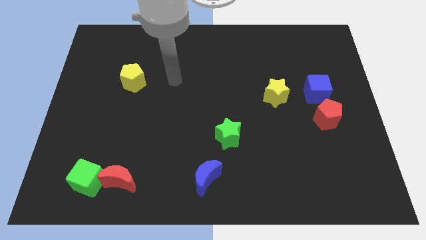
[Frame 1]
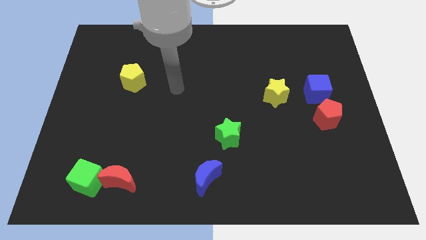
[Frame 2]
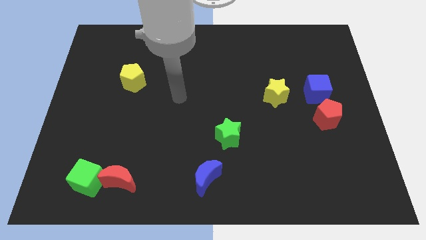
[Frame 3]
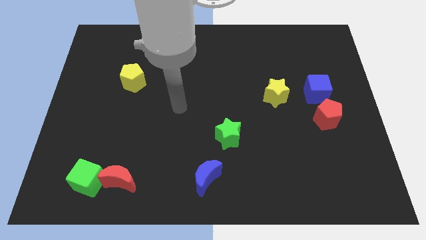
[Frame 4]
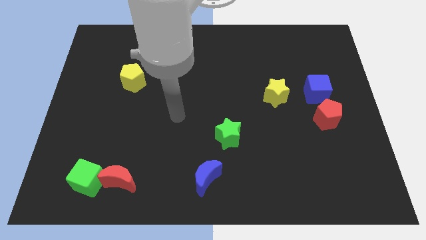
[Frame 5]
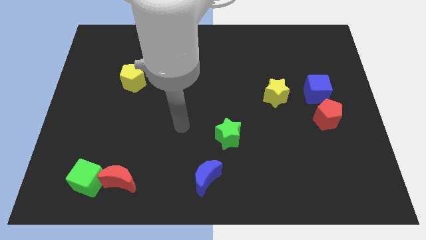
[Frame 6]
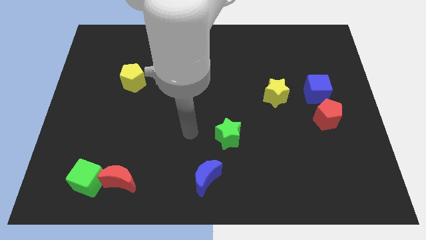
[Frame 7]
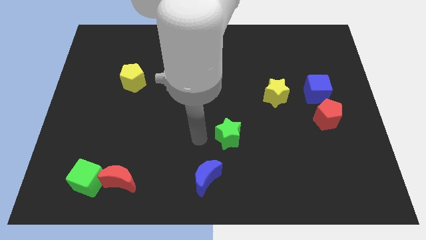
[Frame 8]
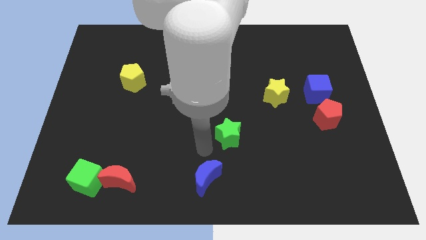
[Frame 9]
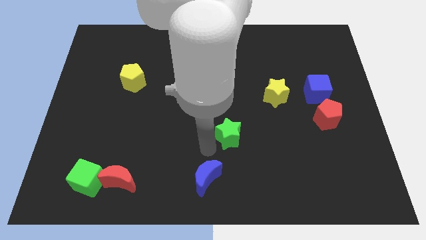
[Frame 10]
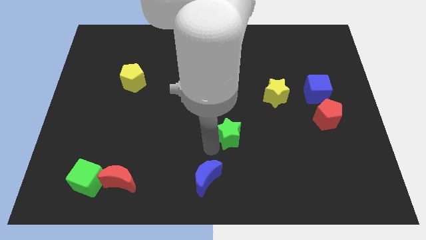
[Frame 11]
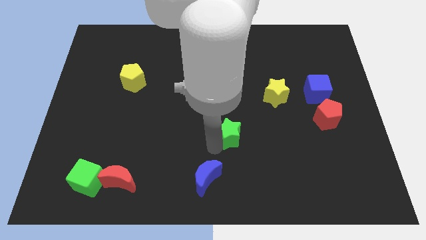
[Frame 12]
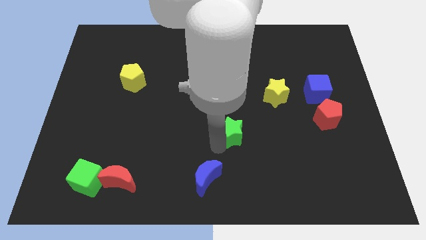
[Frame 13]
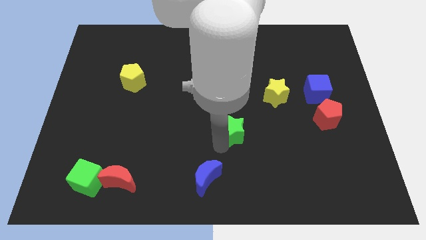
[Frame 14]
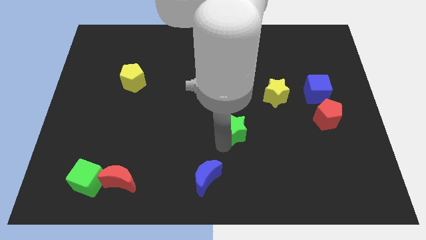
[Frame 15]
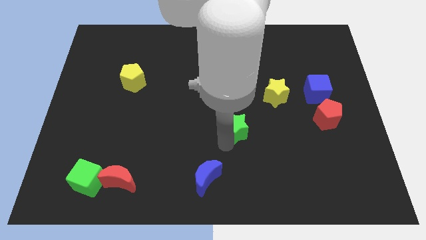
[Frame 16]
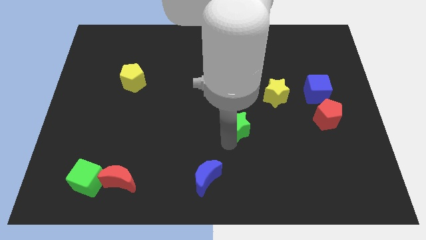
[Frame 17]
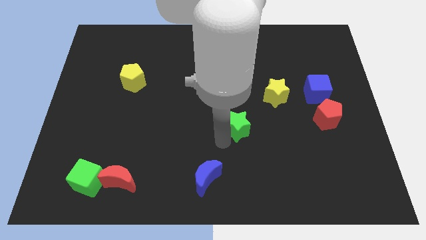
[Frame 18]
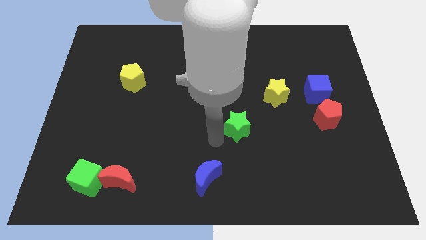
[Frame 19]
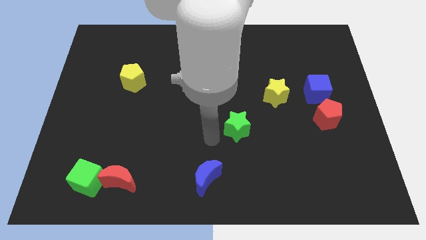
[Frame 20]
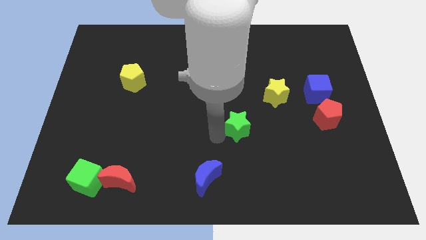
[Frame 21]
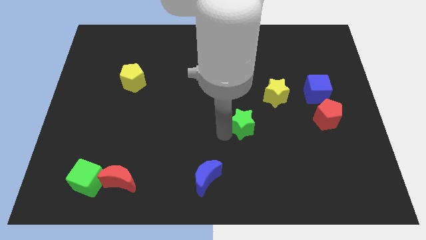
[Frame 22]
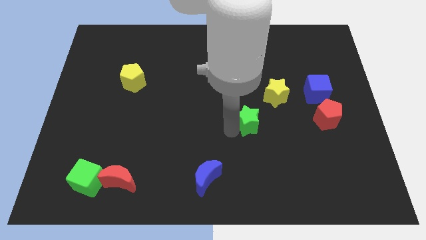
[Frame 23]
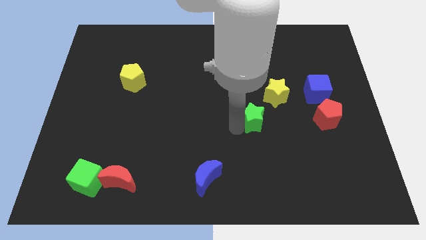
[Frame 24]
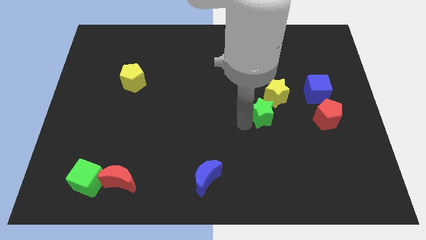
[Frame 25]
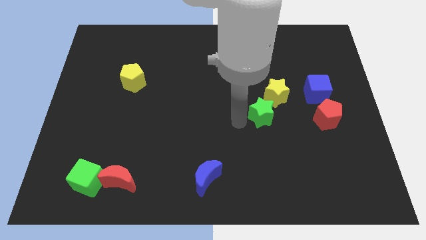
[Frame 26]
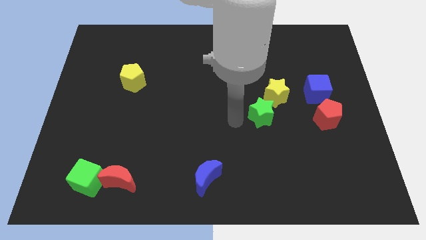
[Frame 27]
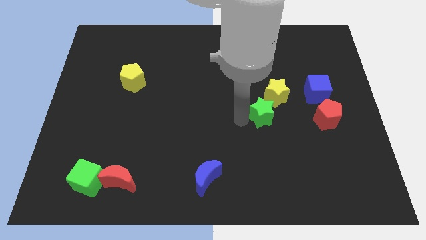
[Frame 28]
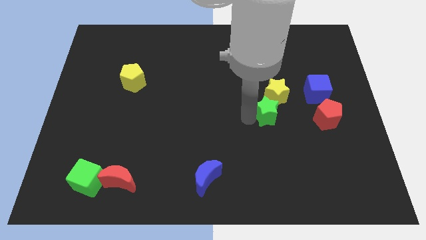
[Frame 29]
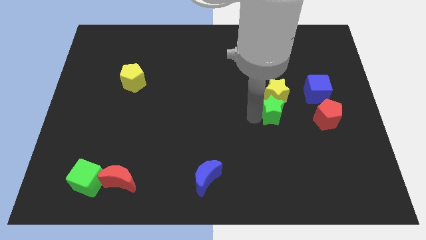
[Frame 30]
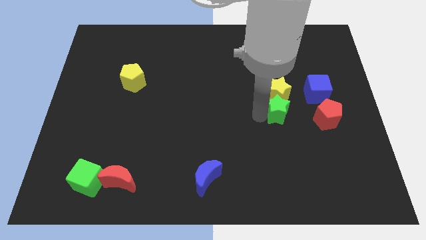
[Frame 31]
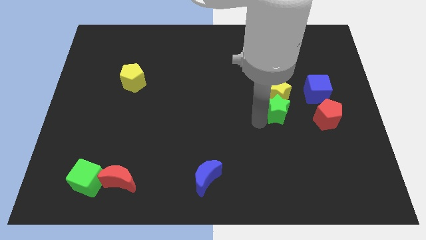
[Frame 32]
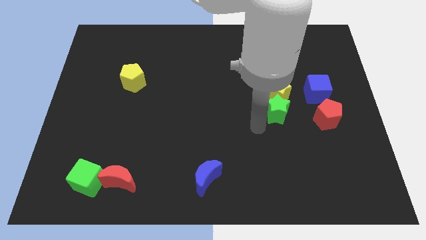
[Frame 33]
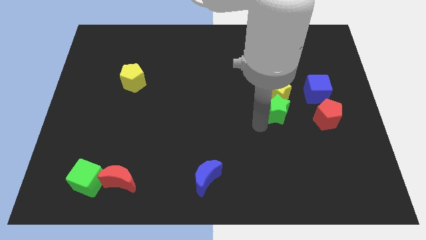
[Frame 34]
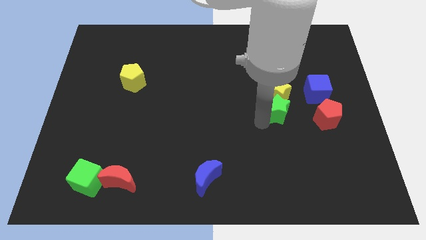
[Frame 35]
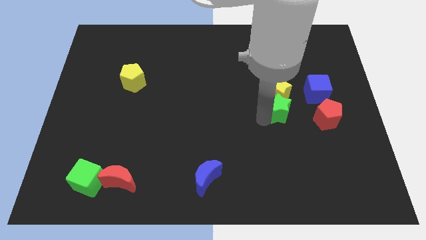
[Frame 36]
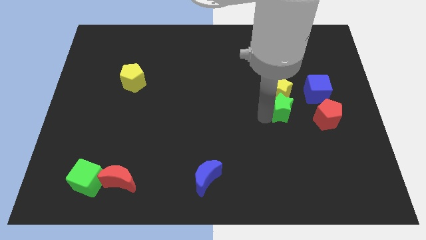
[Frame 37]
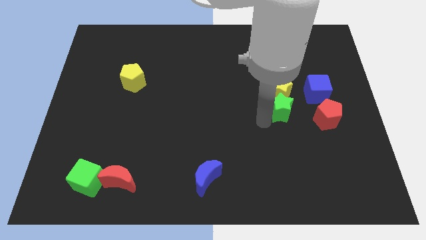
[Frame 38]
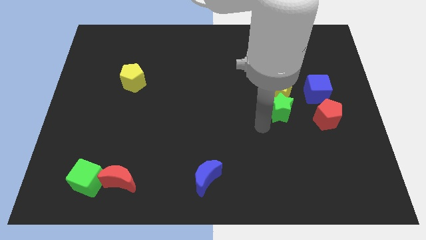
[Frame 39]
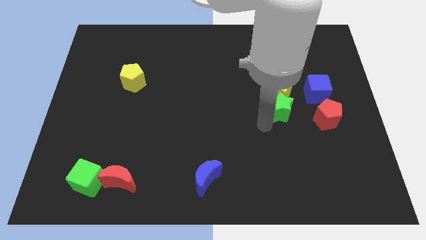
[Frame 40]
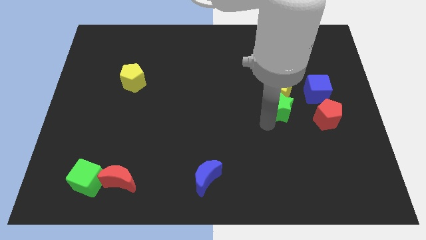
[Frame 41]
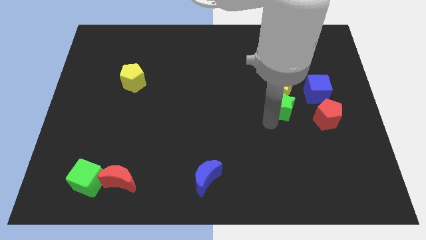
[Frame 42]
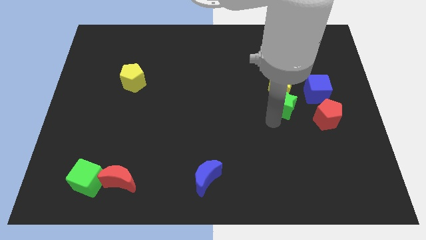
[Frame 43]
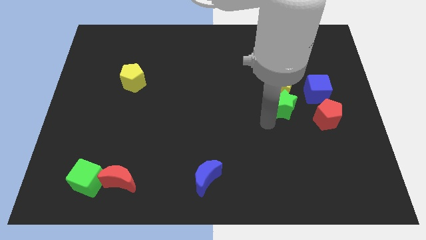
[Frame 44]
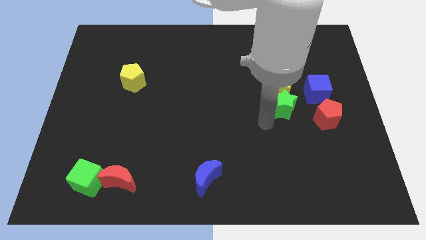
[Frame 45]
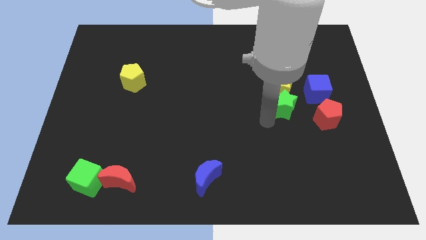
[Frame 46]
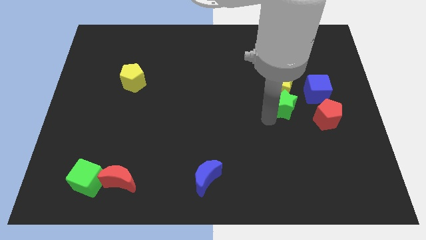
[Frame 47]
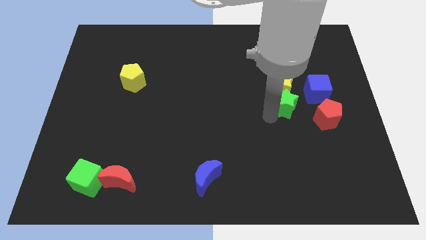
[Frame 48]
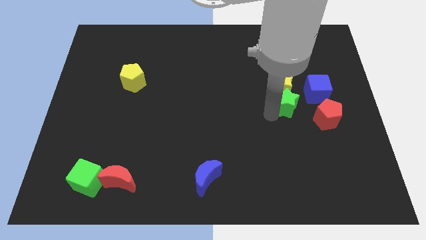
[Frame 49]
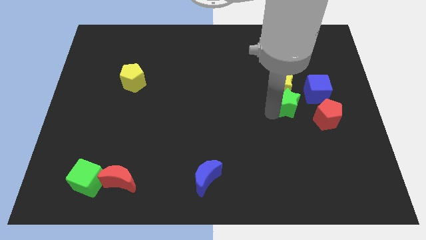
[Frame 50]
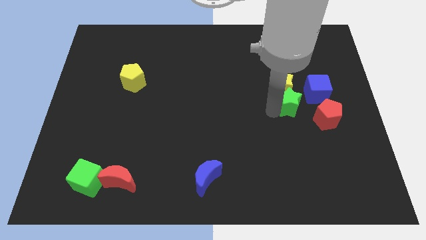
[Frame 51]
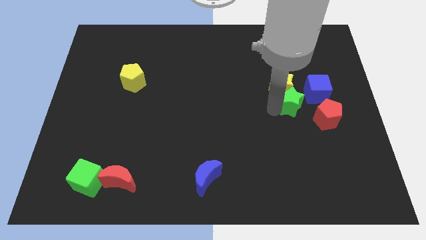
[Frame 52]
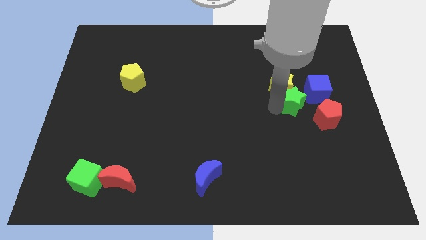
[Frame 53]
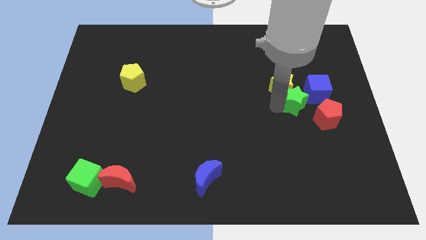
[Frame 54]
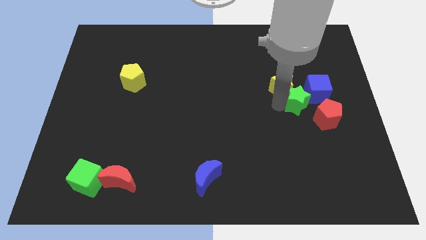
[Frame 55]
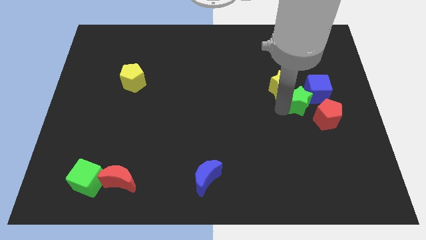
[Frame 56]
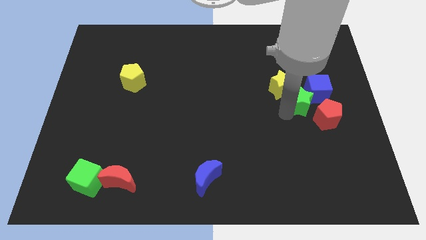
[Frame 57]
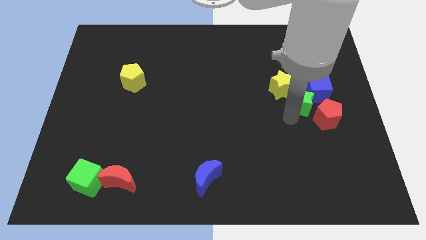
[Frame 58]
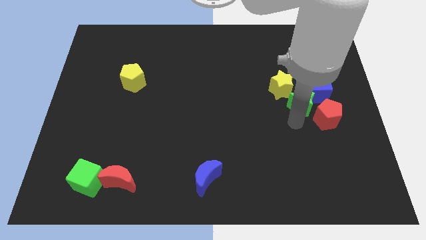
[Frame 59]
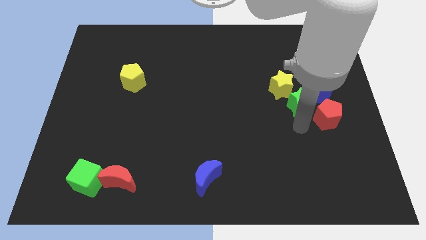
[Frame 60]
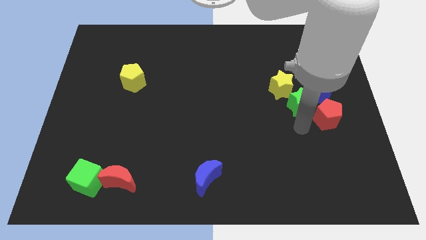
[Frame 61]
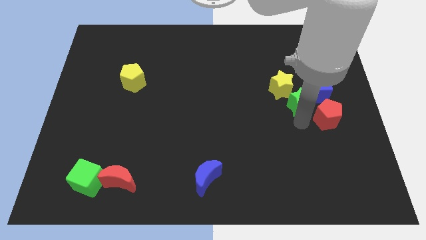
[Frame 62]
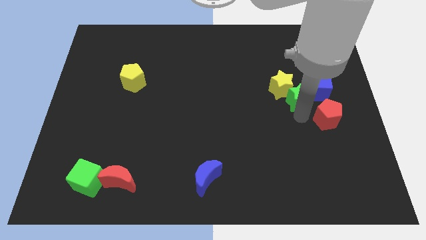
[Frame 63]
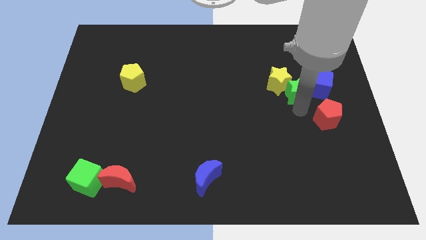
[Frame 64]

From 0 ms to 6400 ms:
slide the green star diagonally up and to the right

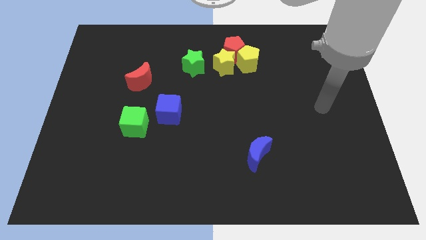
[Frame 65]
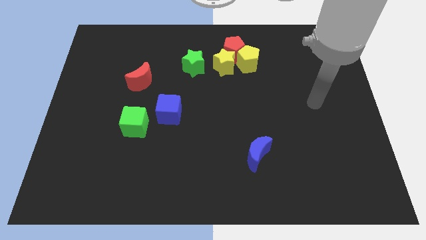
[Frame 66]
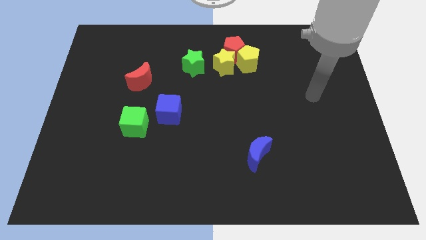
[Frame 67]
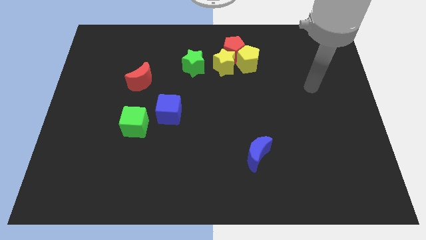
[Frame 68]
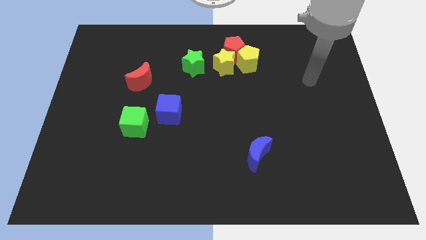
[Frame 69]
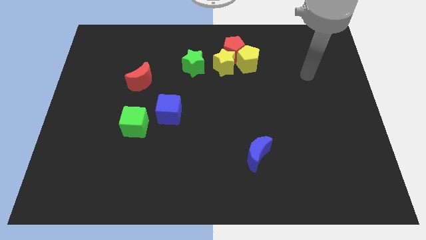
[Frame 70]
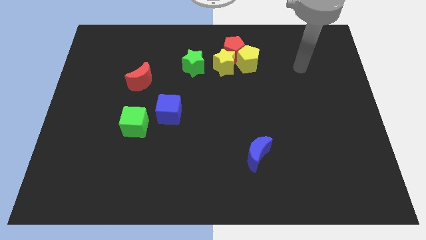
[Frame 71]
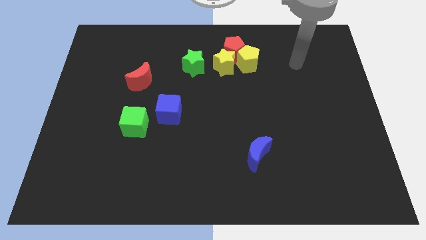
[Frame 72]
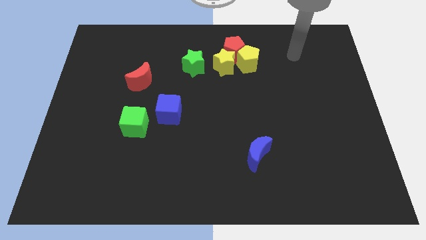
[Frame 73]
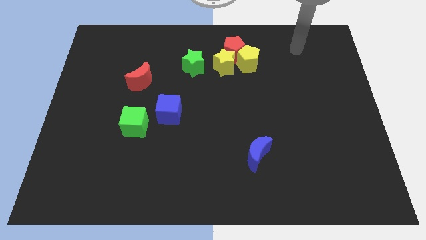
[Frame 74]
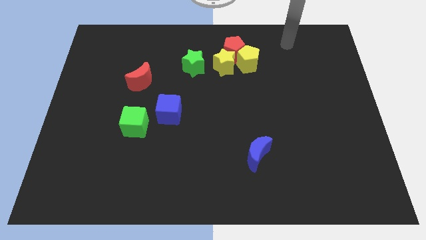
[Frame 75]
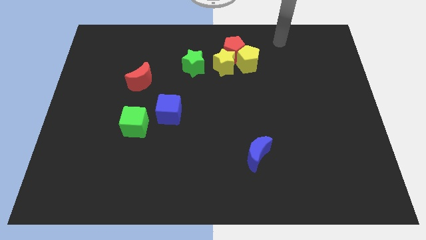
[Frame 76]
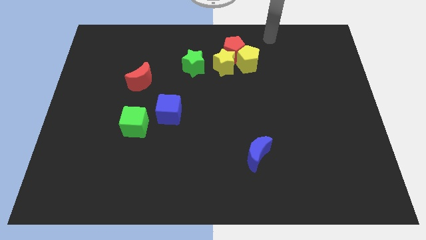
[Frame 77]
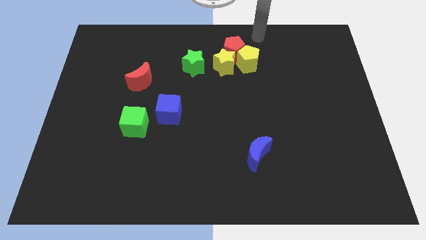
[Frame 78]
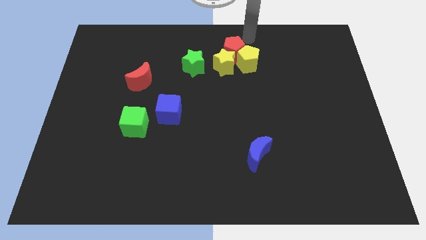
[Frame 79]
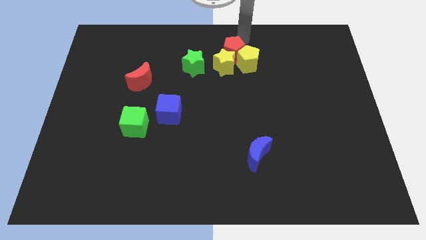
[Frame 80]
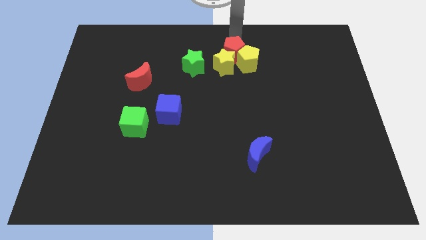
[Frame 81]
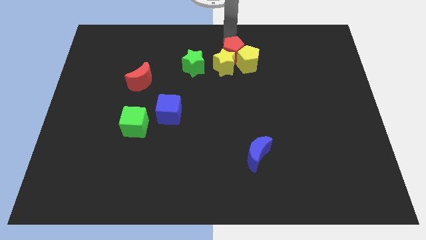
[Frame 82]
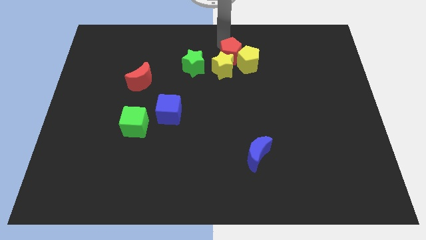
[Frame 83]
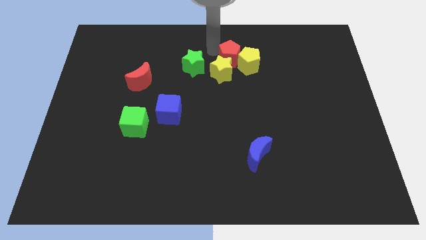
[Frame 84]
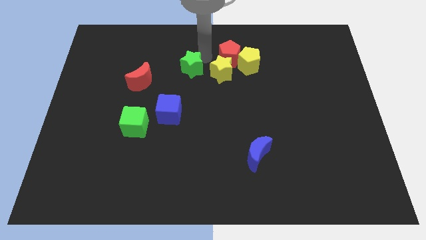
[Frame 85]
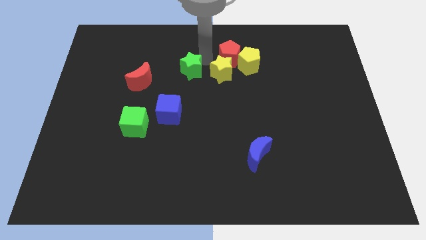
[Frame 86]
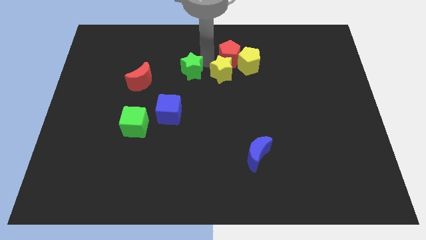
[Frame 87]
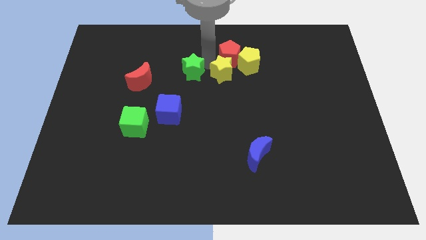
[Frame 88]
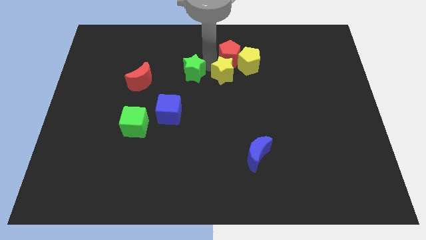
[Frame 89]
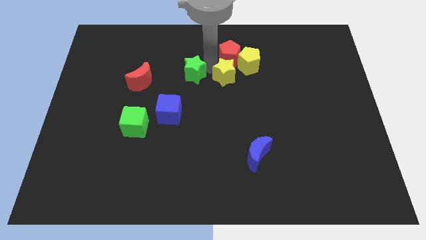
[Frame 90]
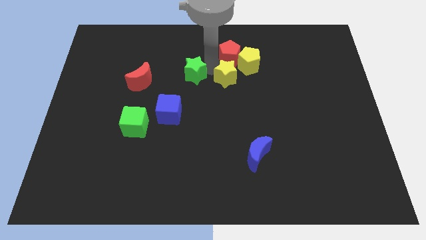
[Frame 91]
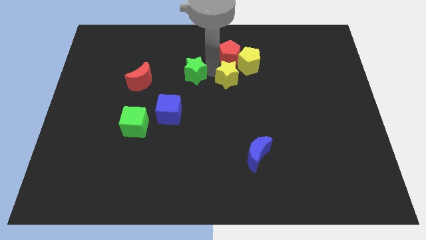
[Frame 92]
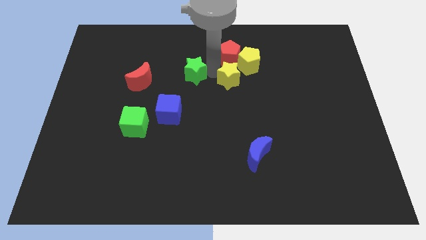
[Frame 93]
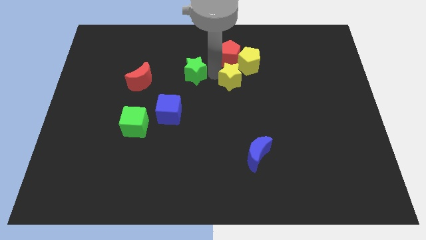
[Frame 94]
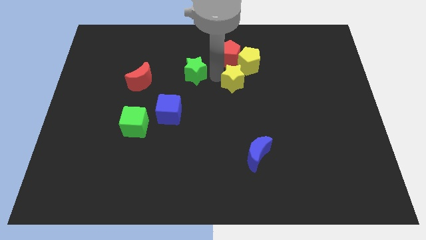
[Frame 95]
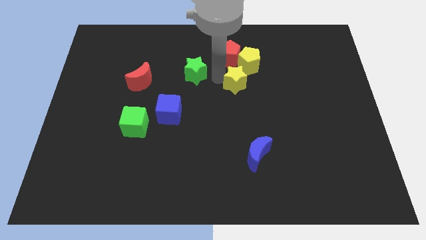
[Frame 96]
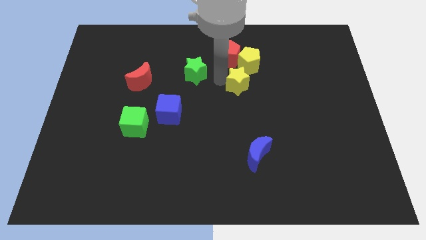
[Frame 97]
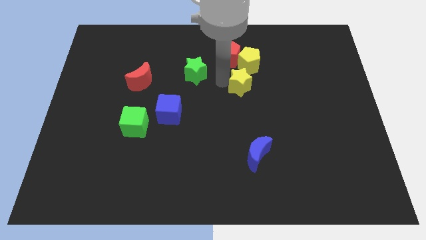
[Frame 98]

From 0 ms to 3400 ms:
slightly slide the yellow star downwards and to the right diagonally
